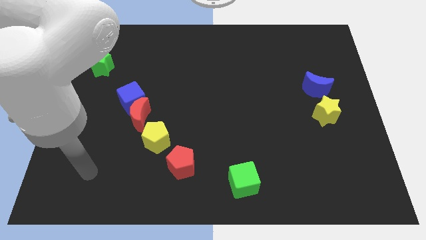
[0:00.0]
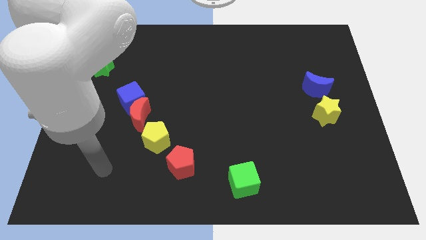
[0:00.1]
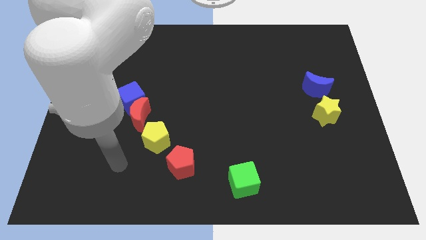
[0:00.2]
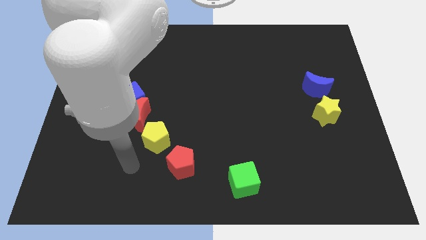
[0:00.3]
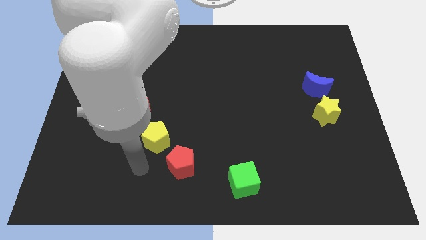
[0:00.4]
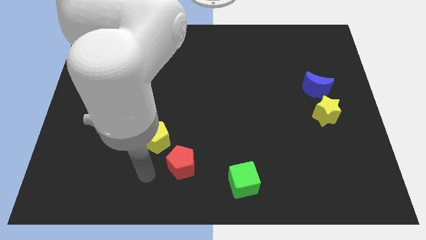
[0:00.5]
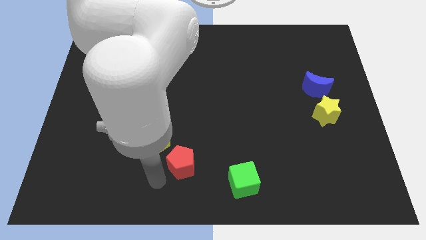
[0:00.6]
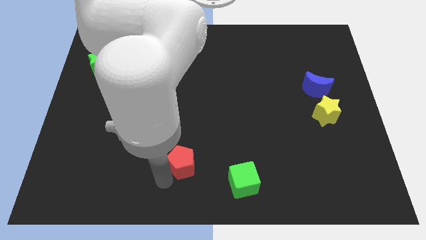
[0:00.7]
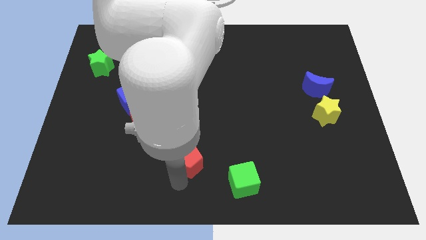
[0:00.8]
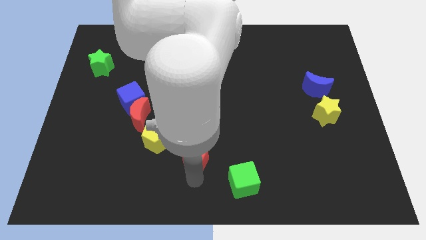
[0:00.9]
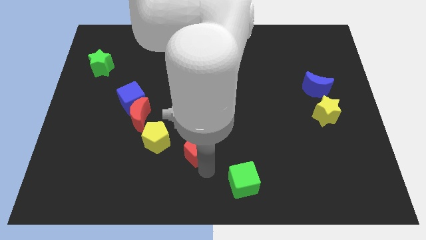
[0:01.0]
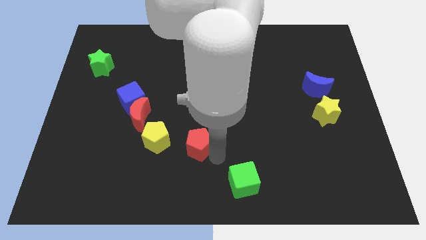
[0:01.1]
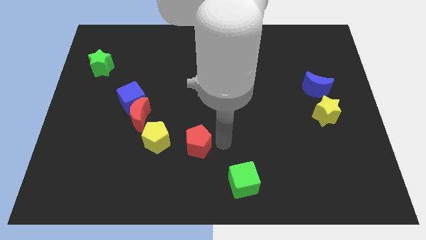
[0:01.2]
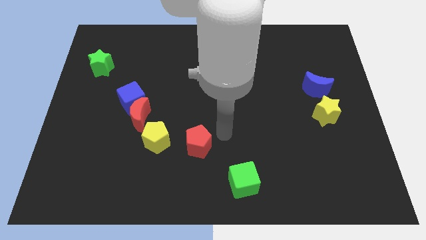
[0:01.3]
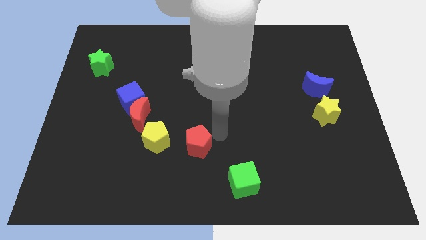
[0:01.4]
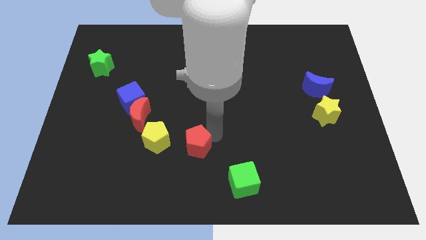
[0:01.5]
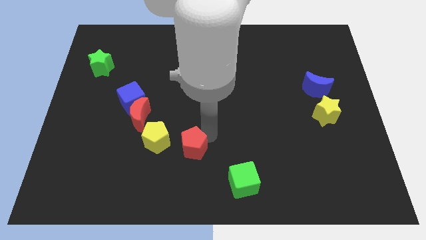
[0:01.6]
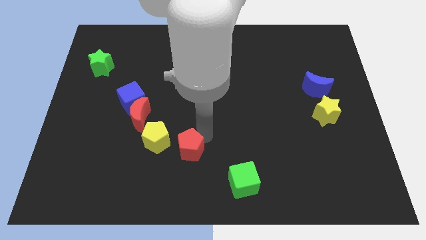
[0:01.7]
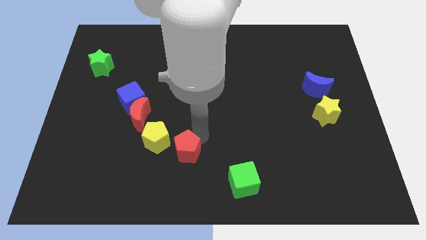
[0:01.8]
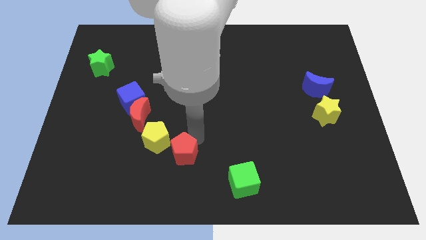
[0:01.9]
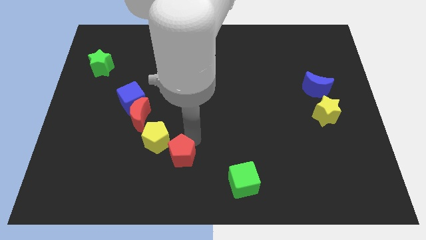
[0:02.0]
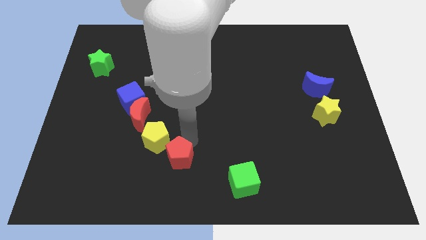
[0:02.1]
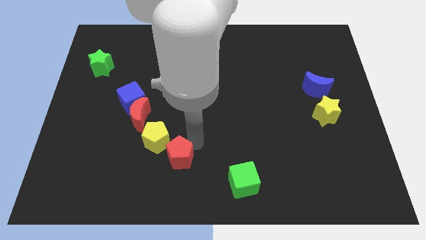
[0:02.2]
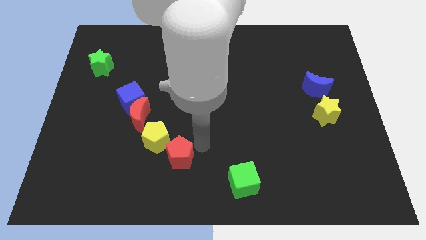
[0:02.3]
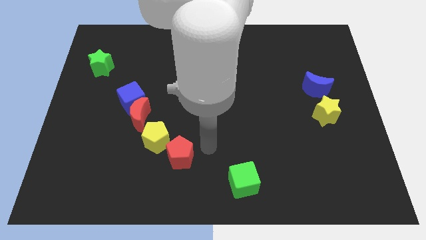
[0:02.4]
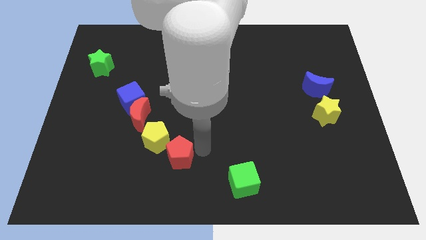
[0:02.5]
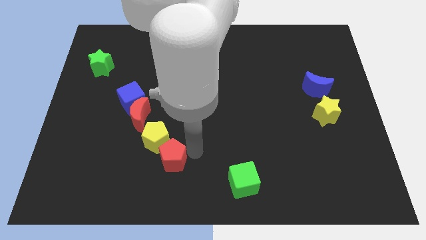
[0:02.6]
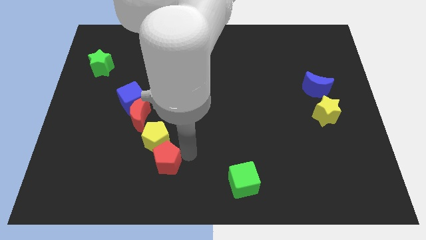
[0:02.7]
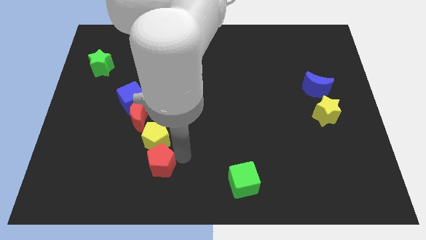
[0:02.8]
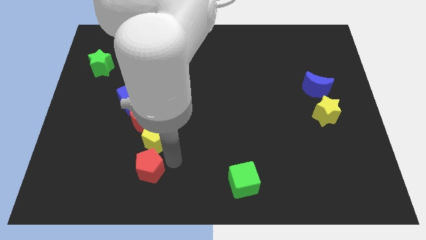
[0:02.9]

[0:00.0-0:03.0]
slide the red pentagon to the left a little

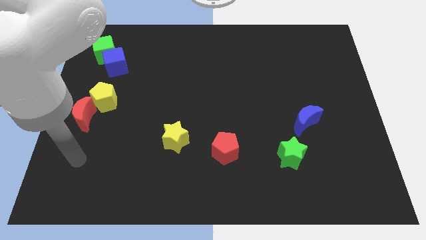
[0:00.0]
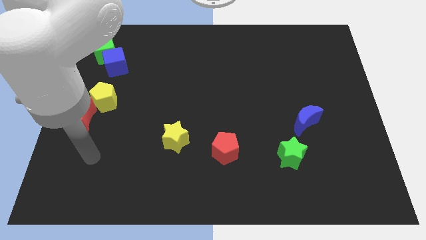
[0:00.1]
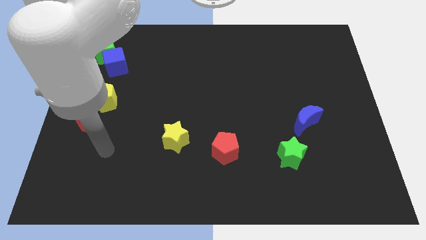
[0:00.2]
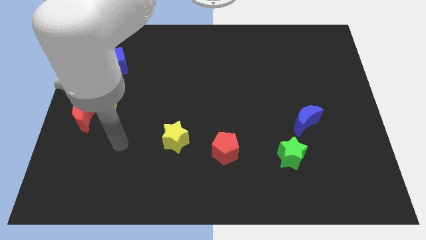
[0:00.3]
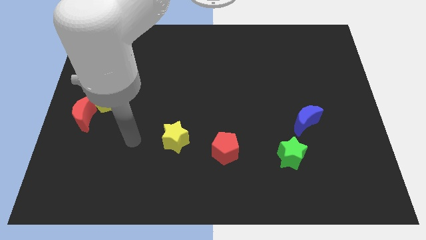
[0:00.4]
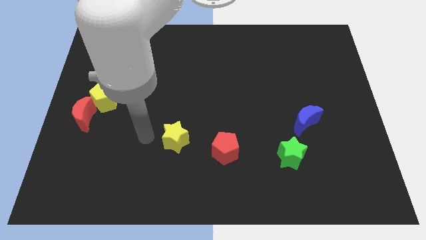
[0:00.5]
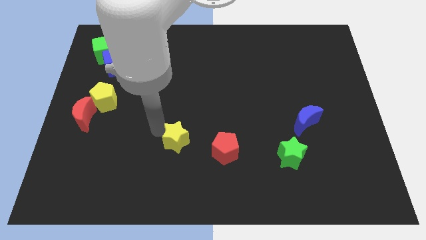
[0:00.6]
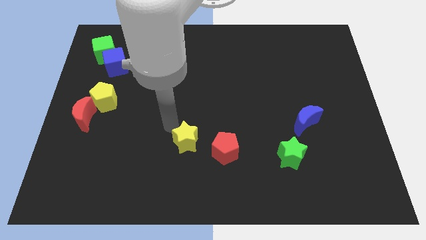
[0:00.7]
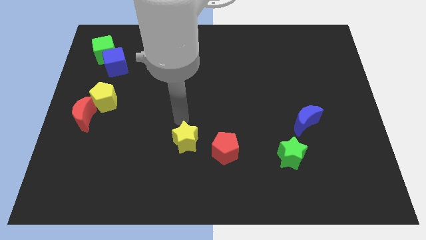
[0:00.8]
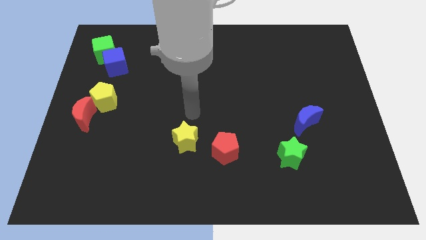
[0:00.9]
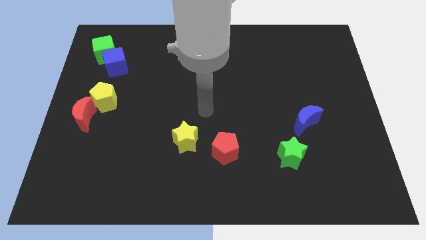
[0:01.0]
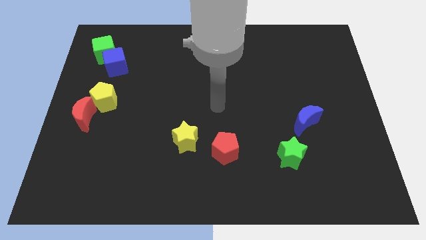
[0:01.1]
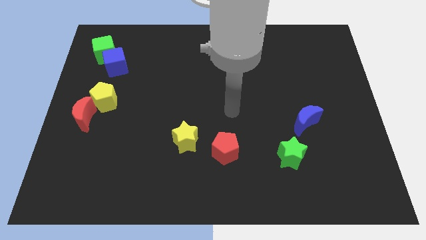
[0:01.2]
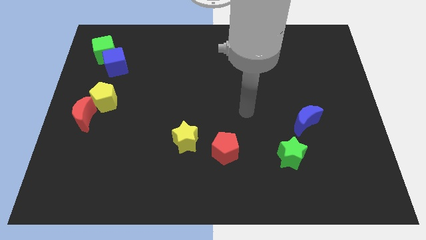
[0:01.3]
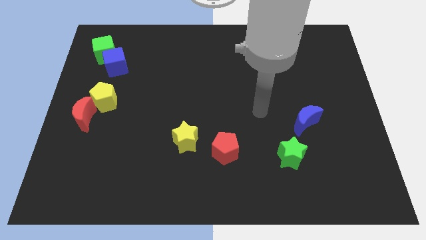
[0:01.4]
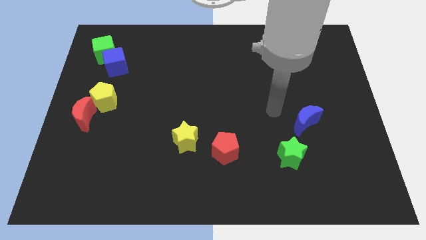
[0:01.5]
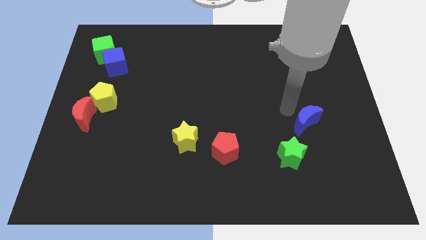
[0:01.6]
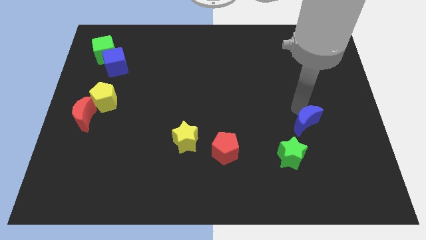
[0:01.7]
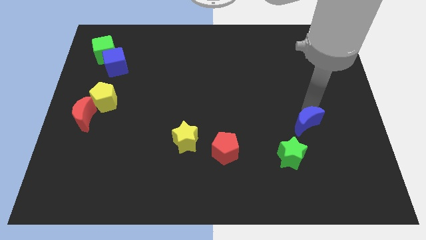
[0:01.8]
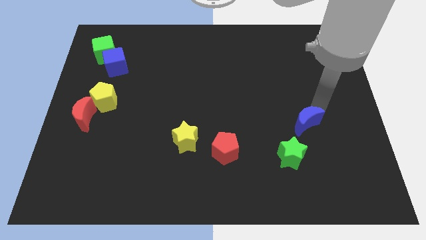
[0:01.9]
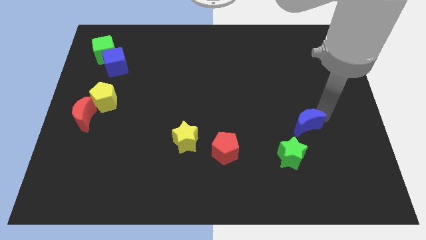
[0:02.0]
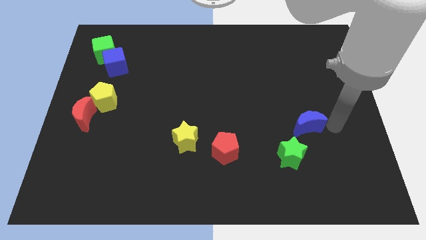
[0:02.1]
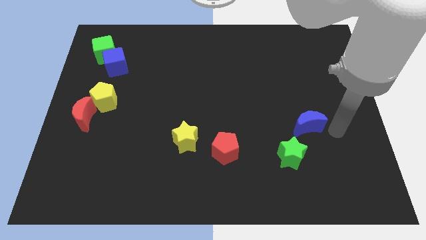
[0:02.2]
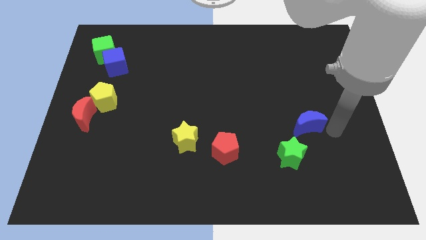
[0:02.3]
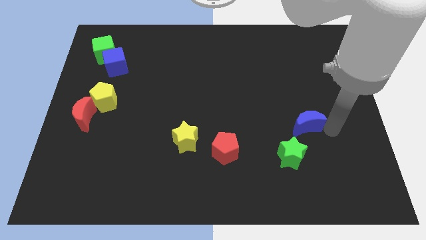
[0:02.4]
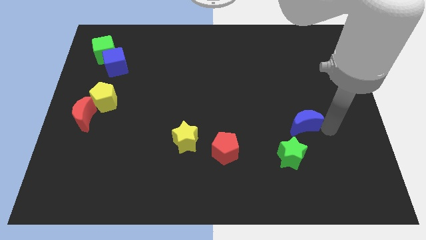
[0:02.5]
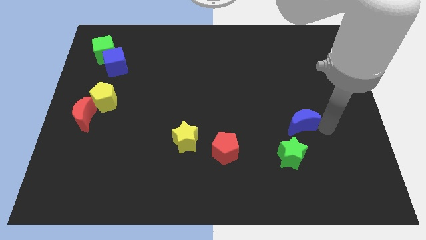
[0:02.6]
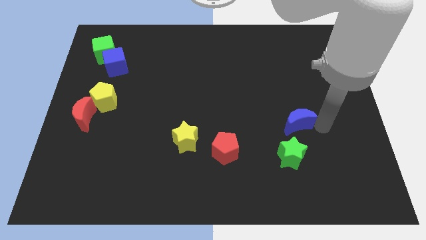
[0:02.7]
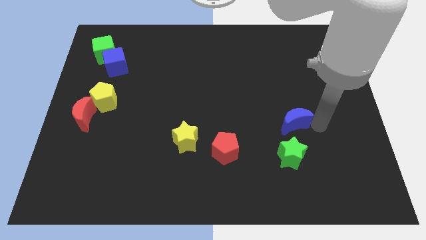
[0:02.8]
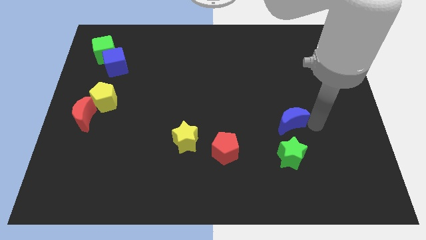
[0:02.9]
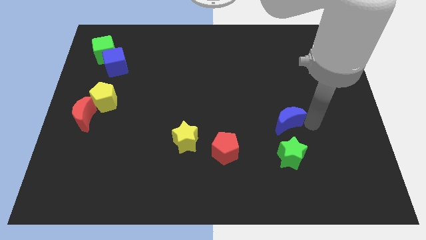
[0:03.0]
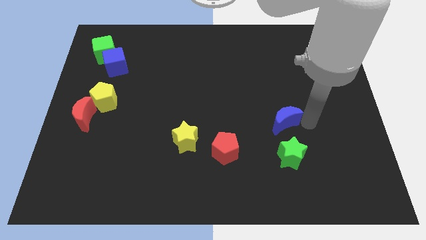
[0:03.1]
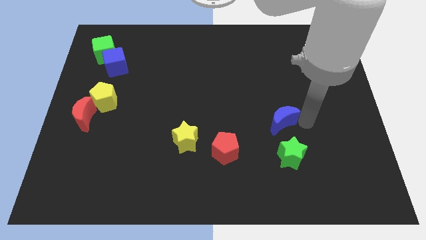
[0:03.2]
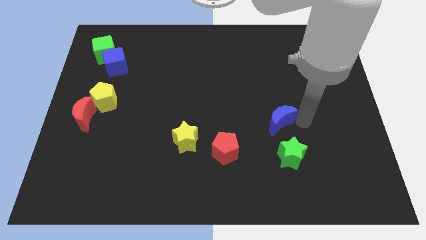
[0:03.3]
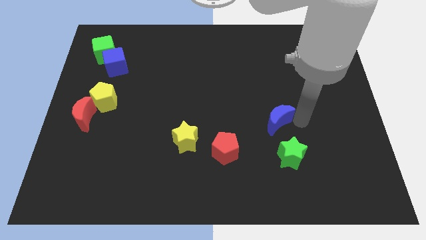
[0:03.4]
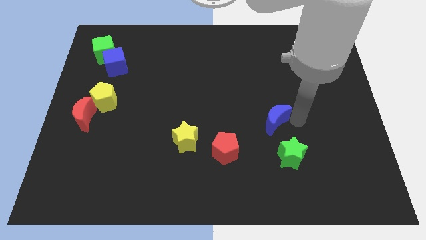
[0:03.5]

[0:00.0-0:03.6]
slide the blue moon a little left

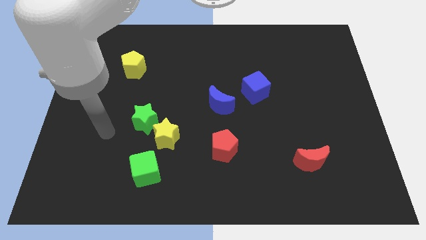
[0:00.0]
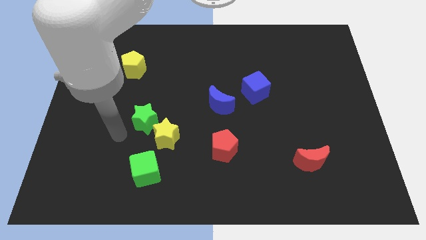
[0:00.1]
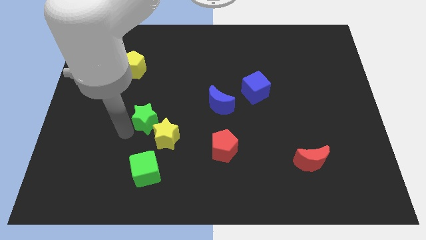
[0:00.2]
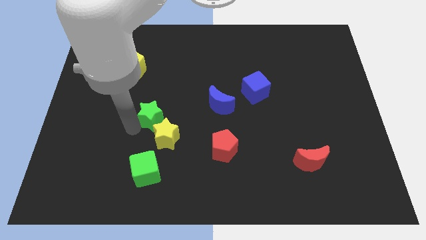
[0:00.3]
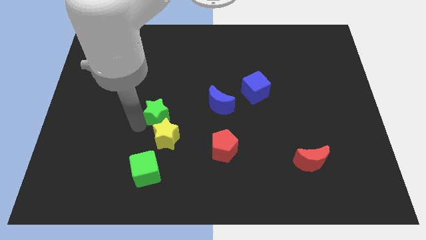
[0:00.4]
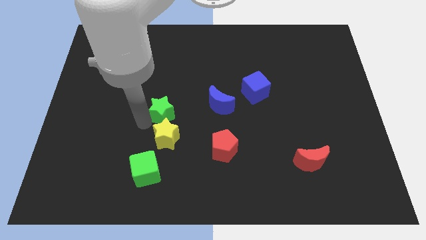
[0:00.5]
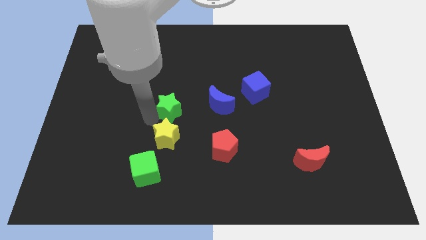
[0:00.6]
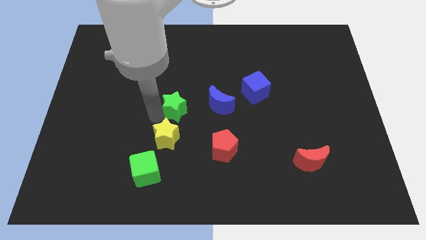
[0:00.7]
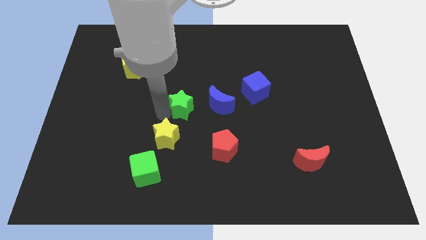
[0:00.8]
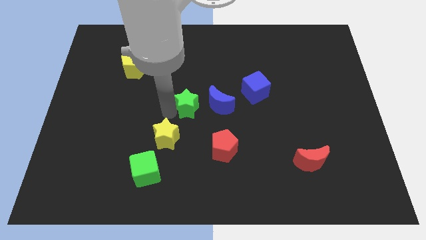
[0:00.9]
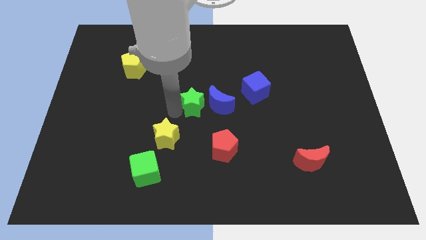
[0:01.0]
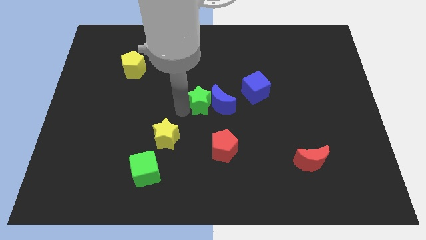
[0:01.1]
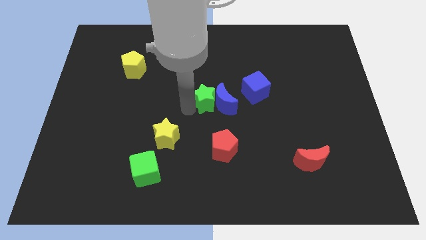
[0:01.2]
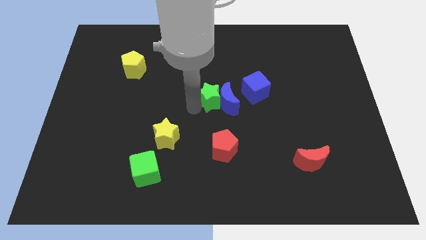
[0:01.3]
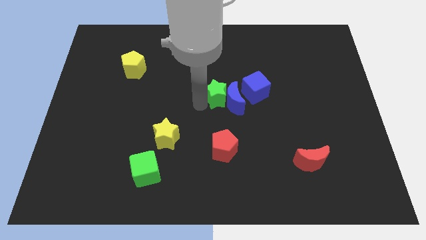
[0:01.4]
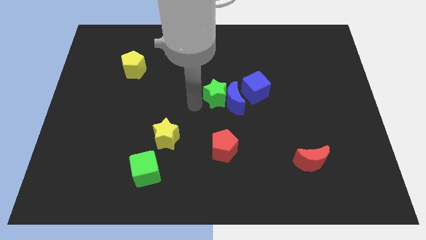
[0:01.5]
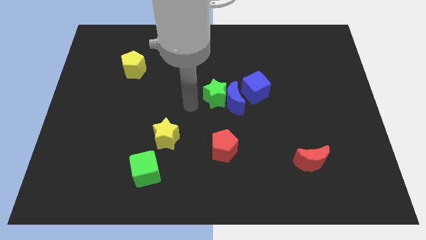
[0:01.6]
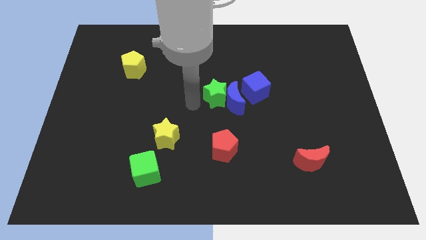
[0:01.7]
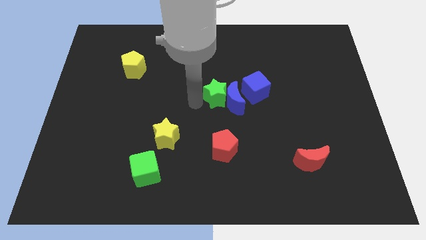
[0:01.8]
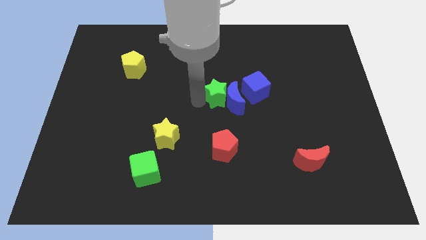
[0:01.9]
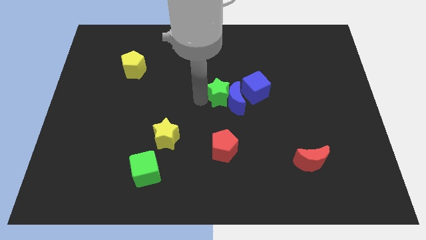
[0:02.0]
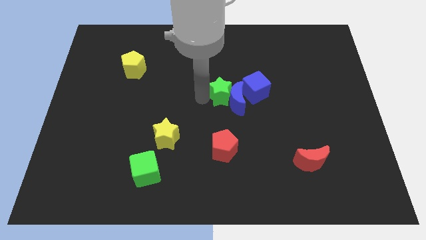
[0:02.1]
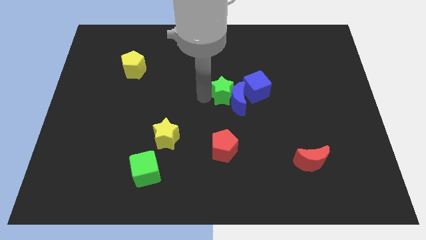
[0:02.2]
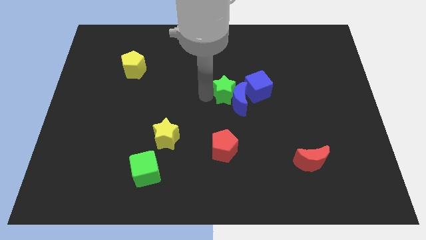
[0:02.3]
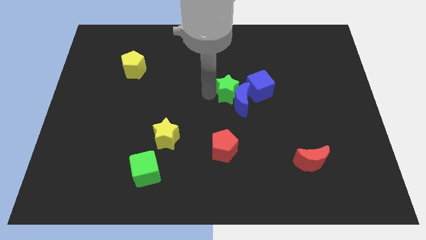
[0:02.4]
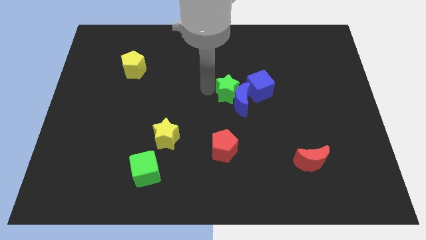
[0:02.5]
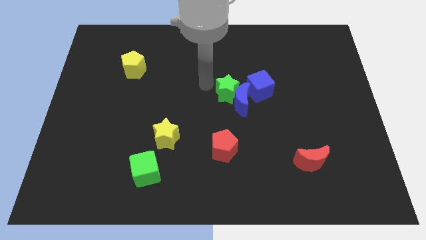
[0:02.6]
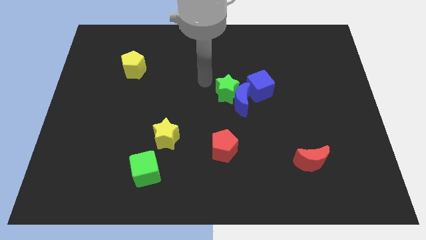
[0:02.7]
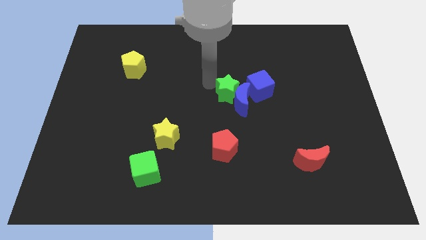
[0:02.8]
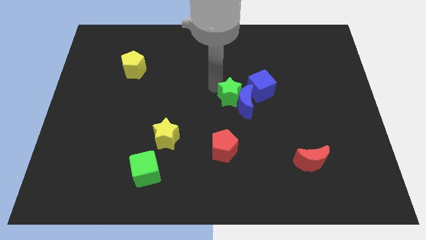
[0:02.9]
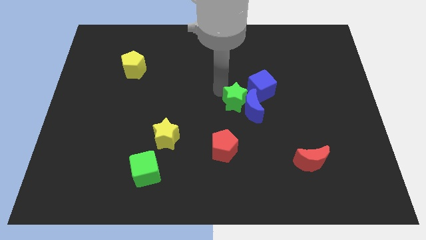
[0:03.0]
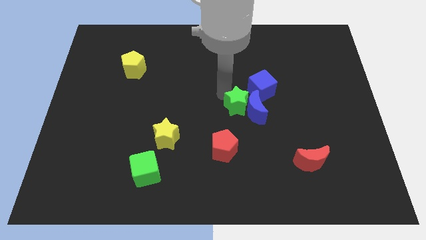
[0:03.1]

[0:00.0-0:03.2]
slide the green star to the right
